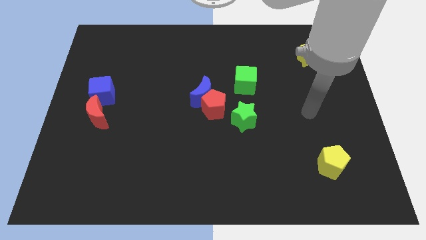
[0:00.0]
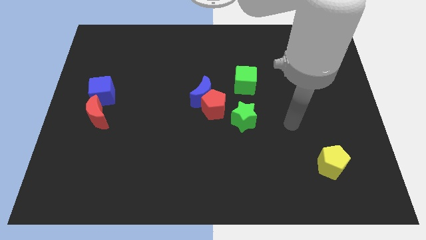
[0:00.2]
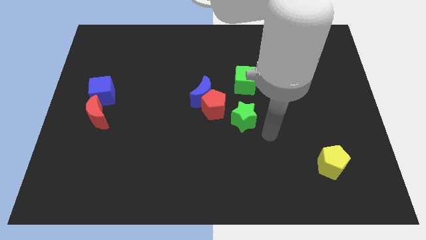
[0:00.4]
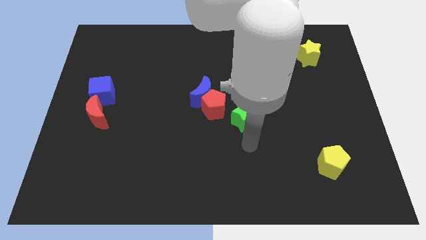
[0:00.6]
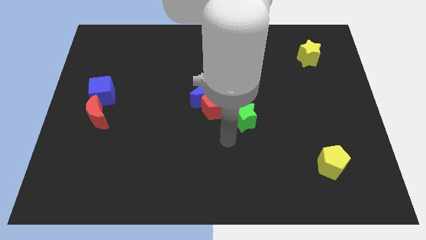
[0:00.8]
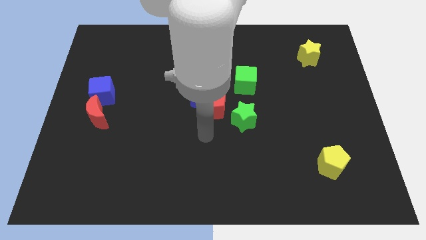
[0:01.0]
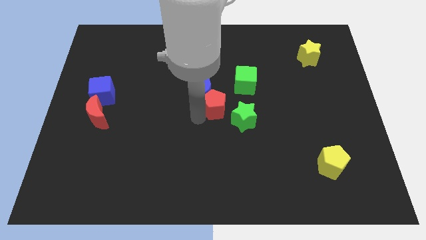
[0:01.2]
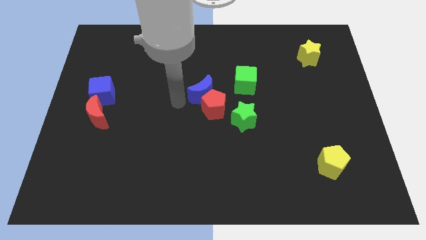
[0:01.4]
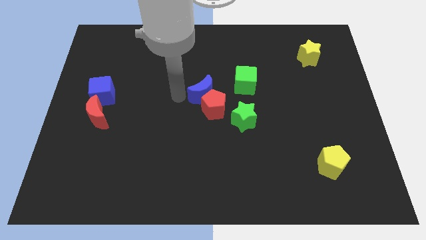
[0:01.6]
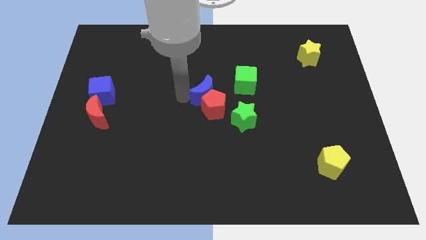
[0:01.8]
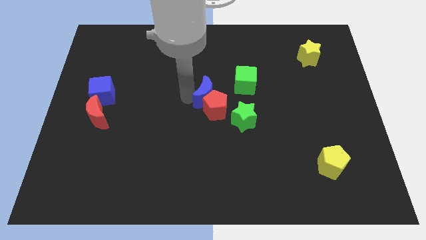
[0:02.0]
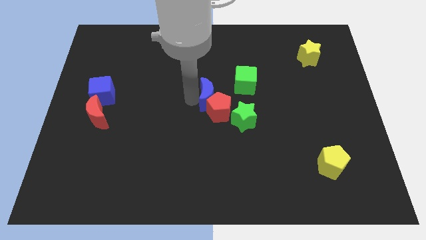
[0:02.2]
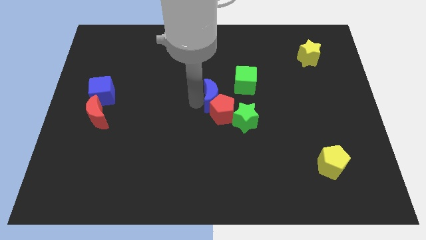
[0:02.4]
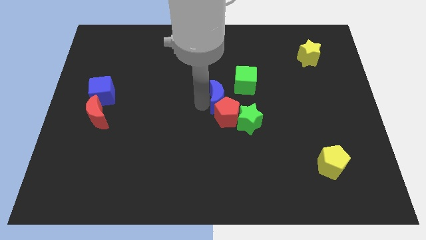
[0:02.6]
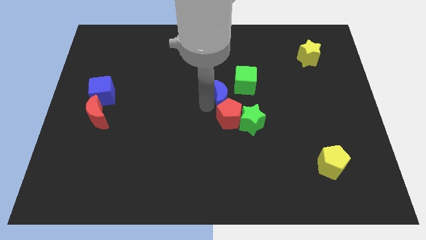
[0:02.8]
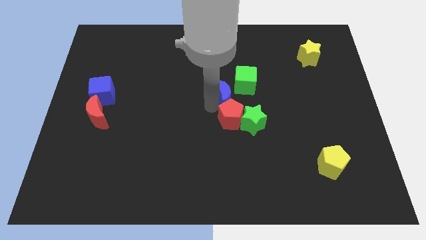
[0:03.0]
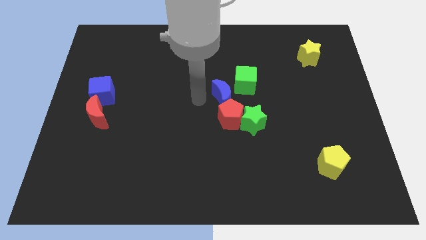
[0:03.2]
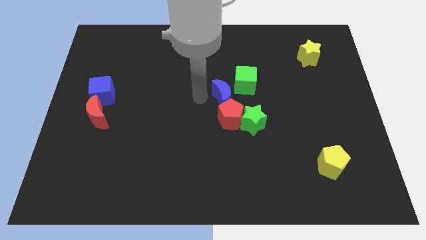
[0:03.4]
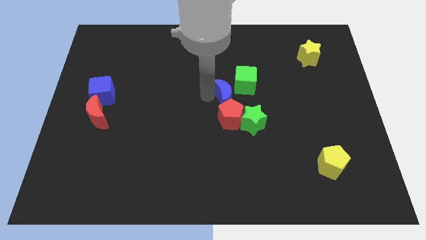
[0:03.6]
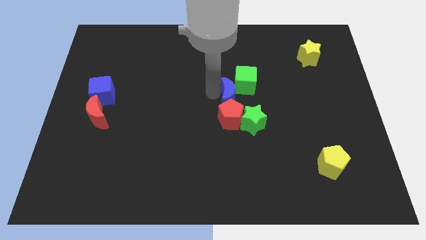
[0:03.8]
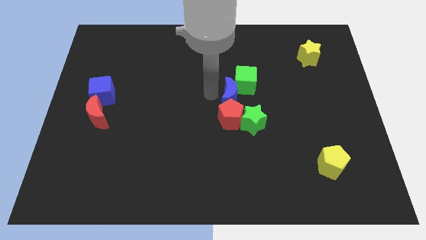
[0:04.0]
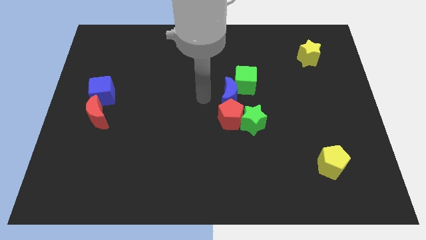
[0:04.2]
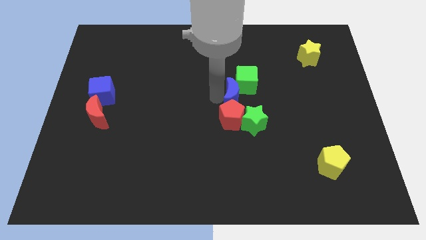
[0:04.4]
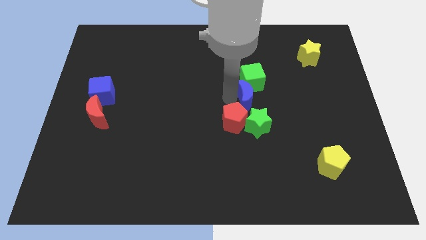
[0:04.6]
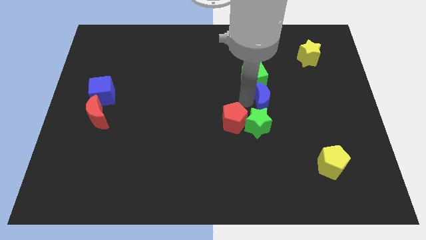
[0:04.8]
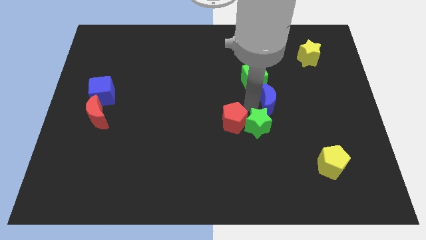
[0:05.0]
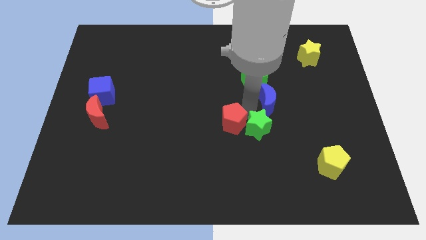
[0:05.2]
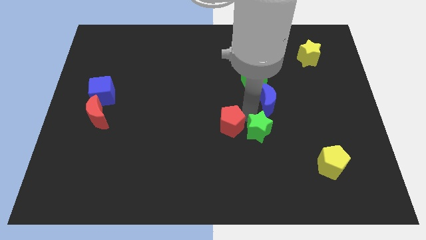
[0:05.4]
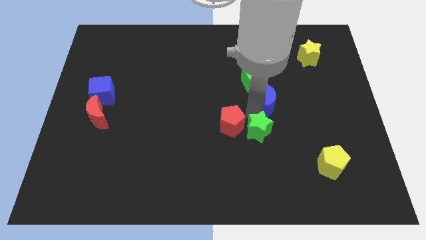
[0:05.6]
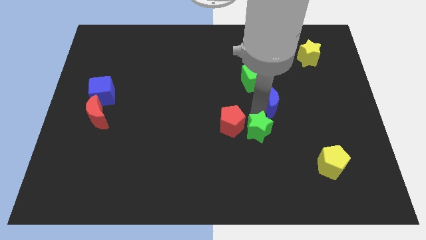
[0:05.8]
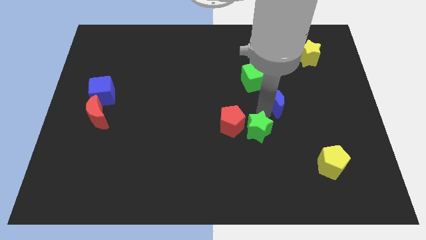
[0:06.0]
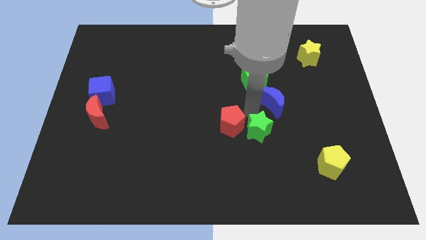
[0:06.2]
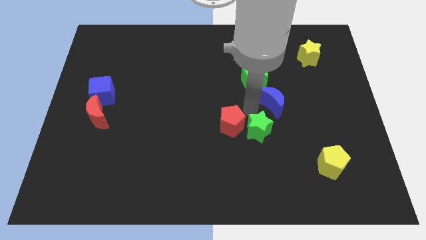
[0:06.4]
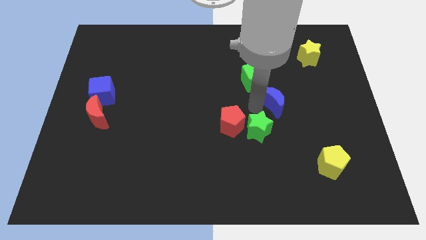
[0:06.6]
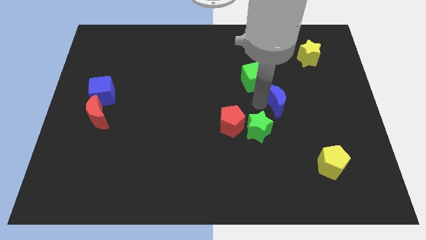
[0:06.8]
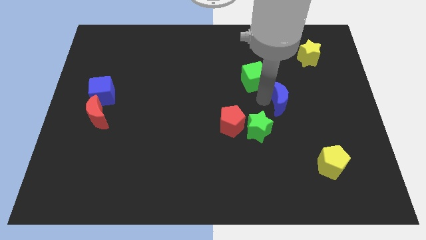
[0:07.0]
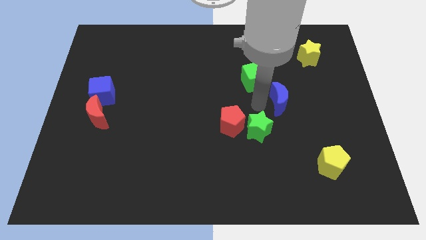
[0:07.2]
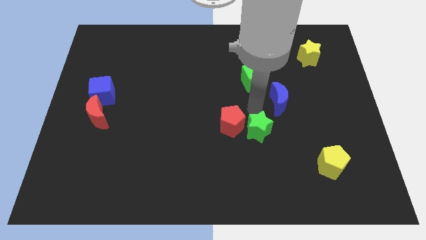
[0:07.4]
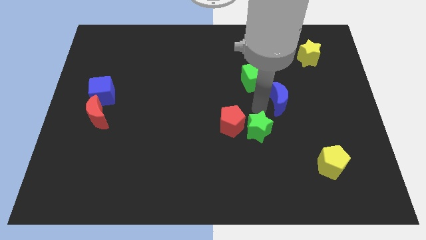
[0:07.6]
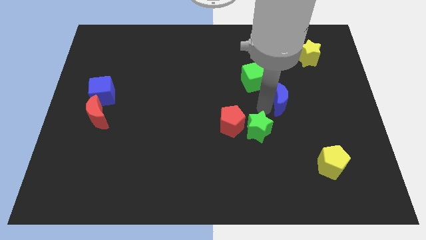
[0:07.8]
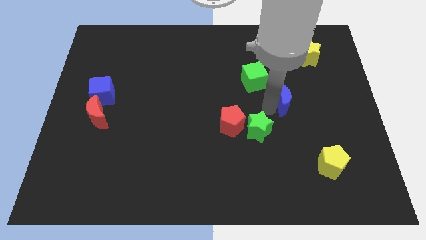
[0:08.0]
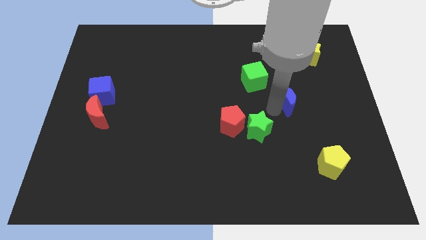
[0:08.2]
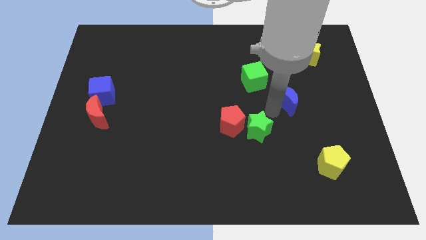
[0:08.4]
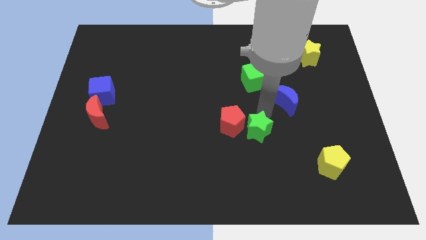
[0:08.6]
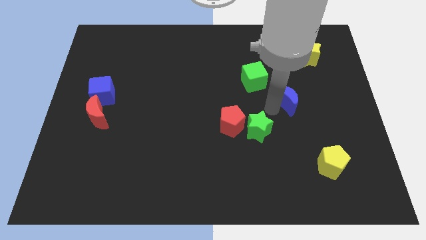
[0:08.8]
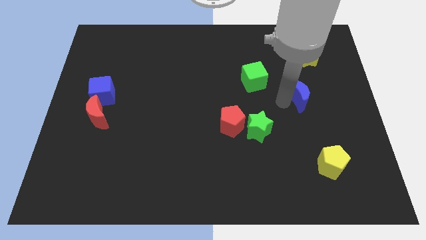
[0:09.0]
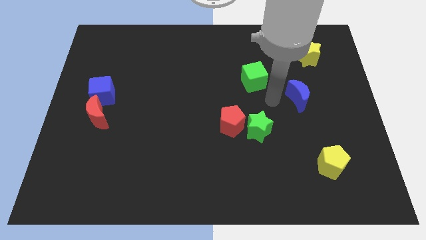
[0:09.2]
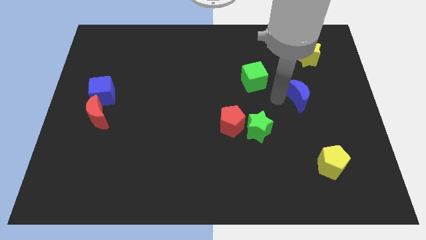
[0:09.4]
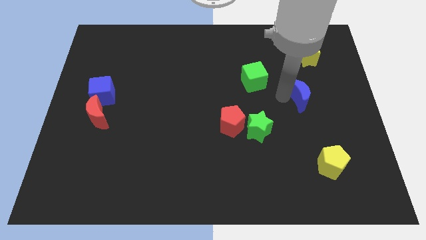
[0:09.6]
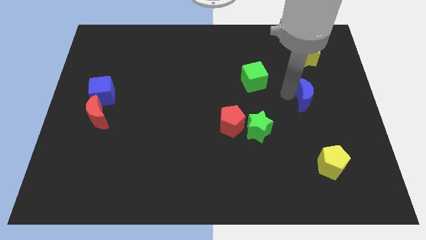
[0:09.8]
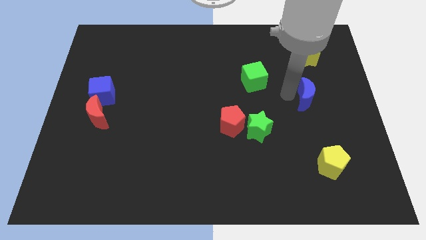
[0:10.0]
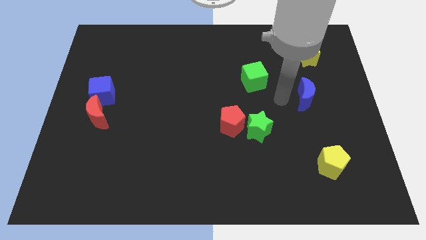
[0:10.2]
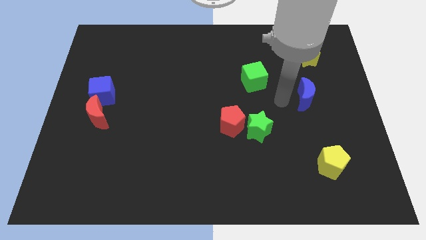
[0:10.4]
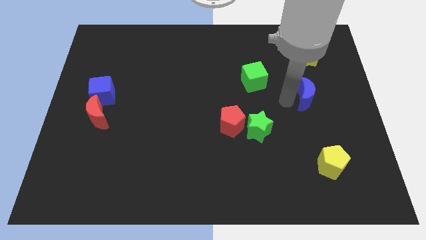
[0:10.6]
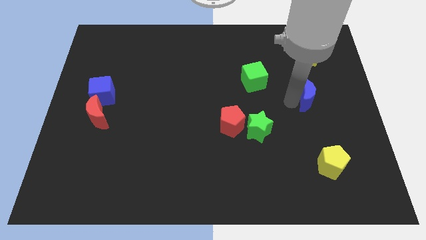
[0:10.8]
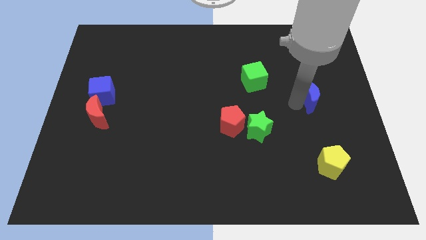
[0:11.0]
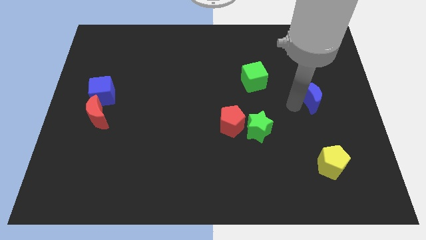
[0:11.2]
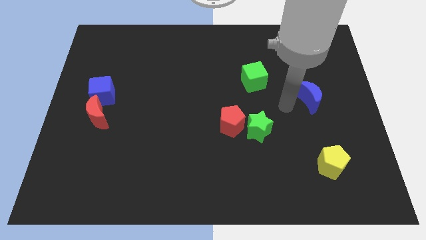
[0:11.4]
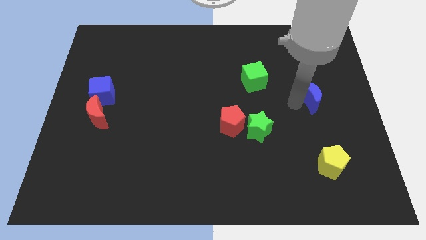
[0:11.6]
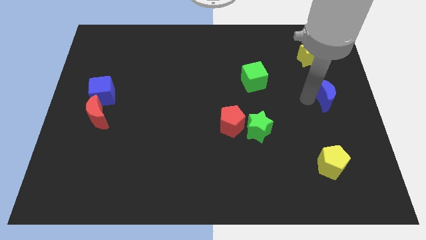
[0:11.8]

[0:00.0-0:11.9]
put the blue moon to the right side
